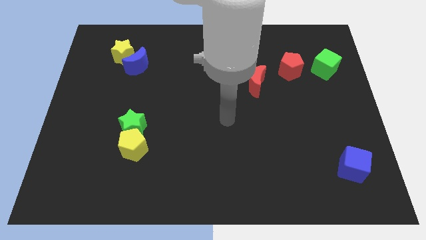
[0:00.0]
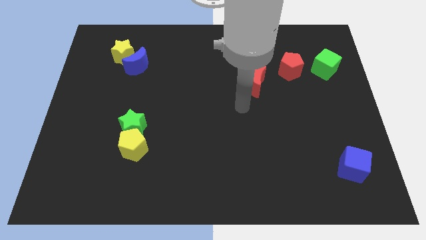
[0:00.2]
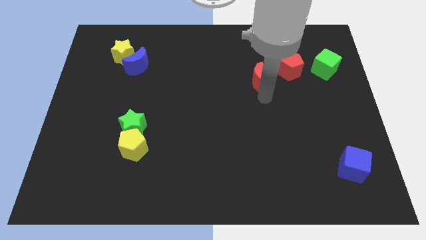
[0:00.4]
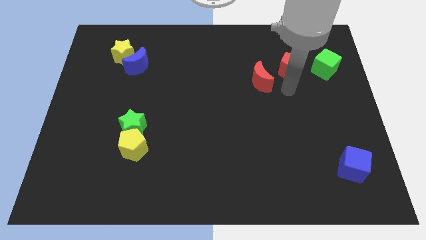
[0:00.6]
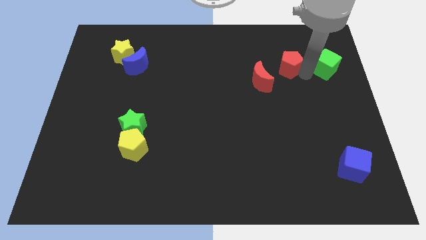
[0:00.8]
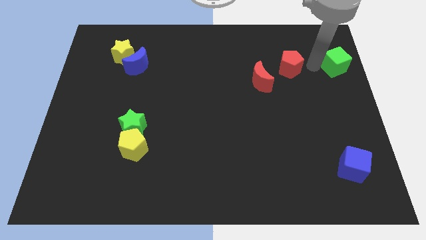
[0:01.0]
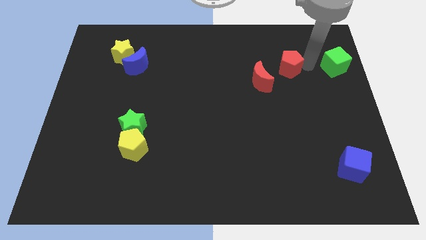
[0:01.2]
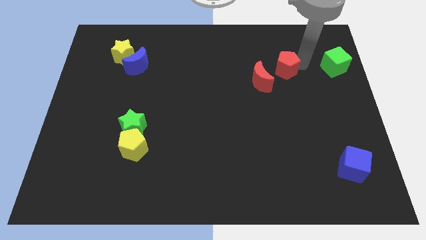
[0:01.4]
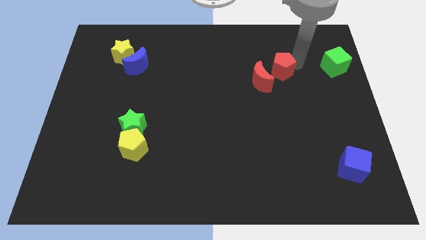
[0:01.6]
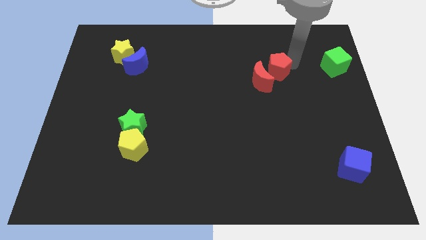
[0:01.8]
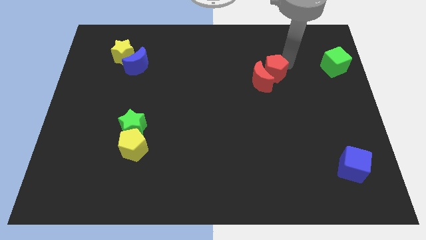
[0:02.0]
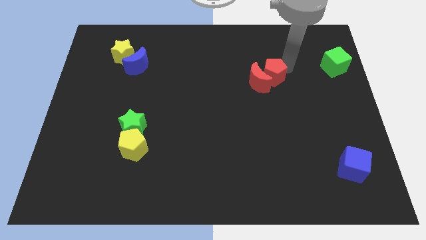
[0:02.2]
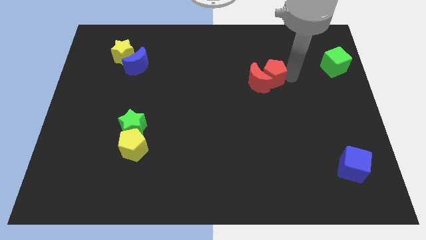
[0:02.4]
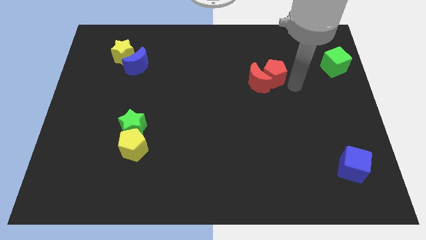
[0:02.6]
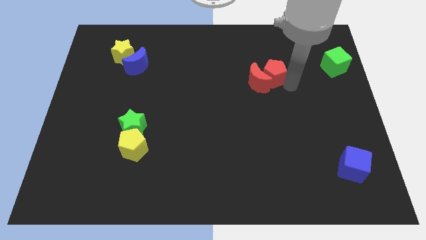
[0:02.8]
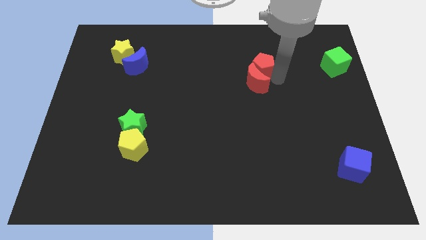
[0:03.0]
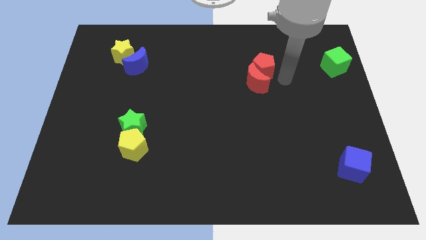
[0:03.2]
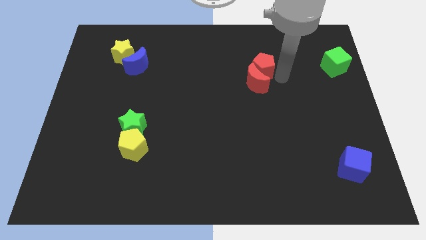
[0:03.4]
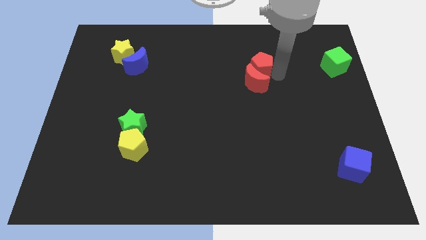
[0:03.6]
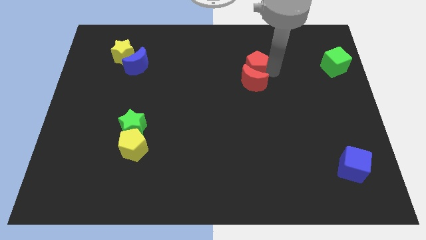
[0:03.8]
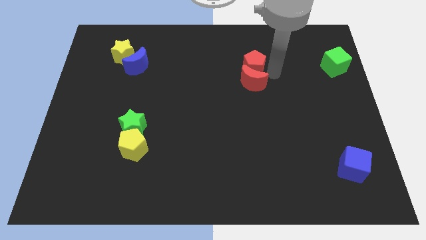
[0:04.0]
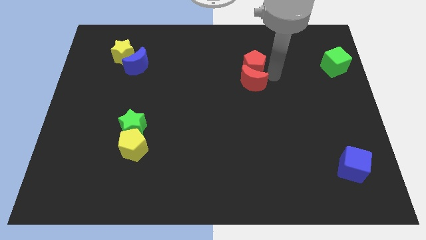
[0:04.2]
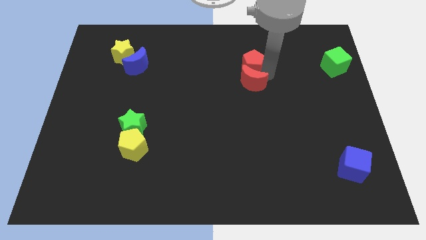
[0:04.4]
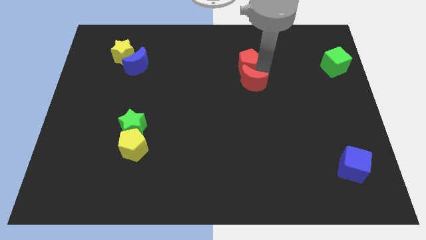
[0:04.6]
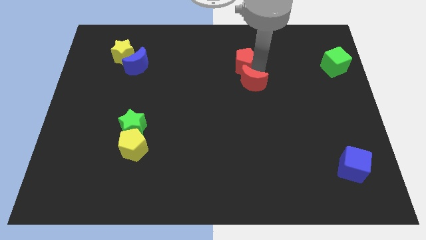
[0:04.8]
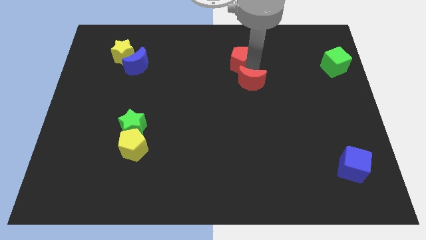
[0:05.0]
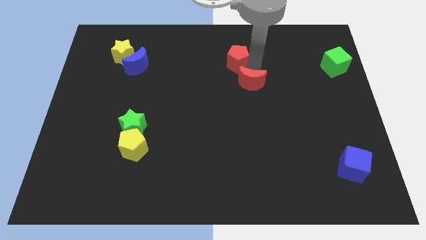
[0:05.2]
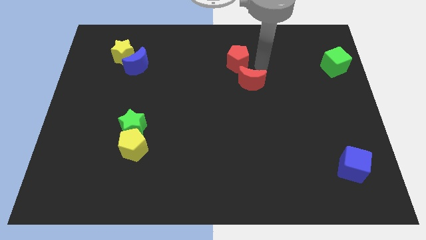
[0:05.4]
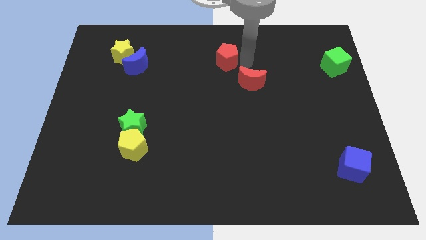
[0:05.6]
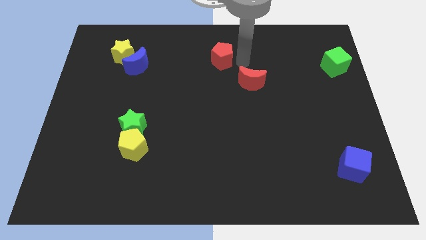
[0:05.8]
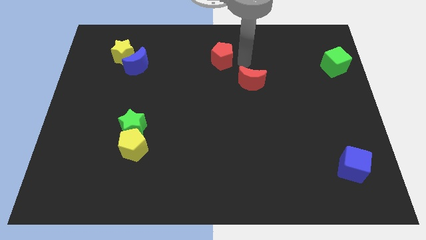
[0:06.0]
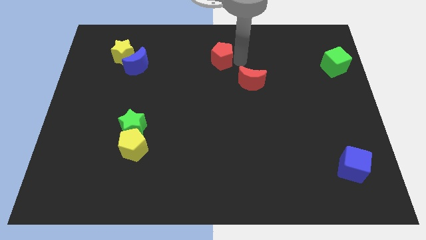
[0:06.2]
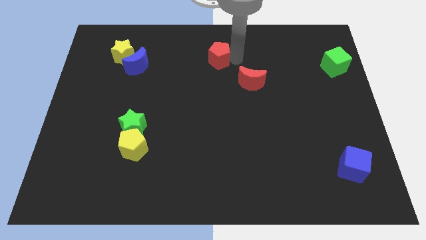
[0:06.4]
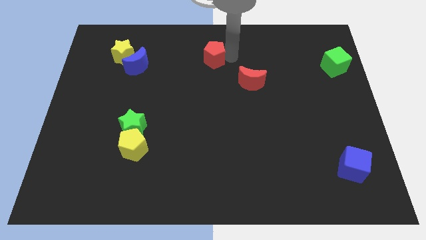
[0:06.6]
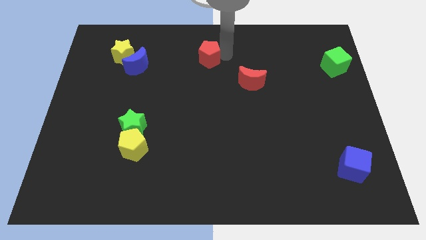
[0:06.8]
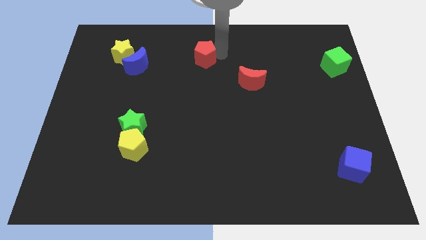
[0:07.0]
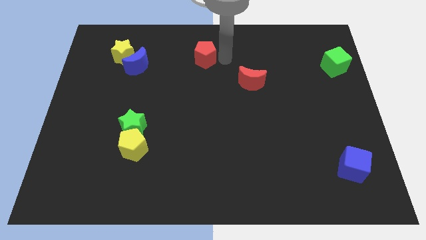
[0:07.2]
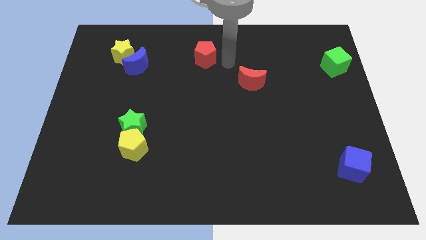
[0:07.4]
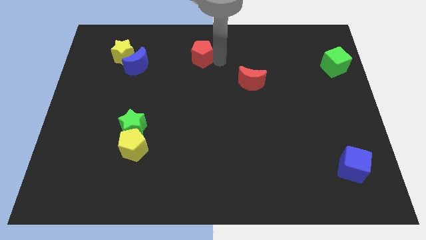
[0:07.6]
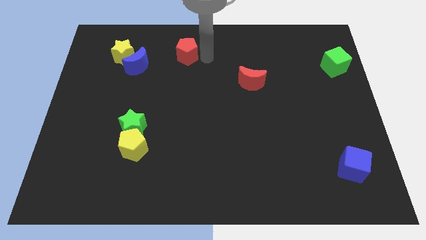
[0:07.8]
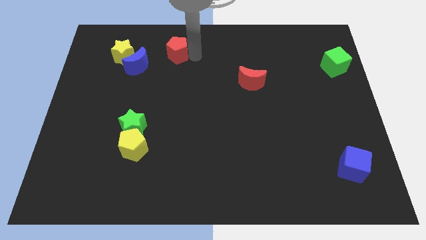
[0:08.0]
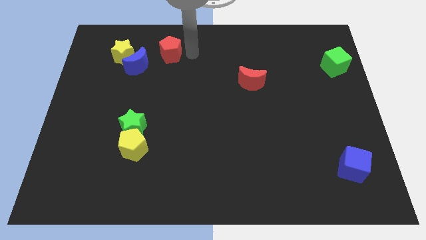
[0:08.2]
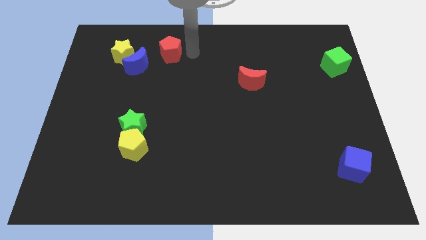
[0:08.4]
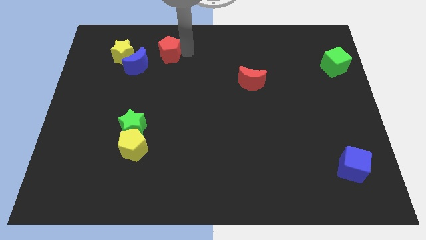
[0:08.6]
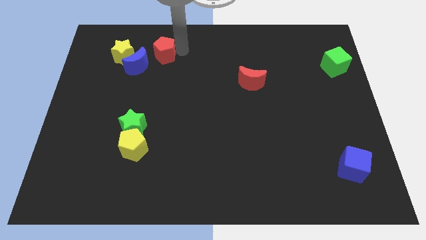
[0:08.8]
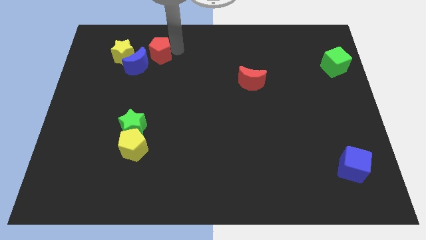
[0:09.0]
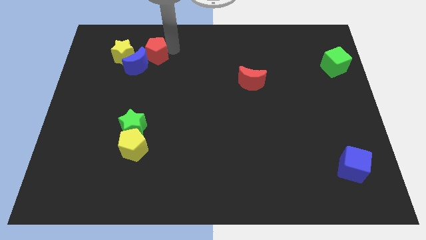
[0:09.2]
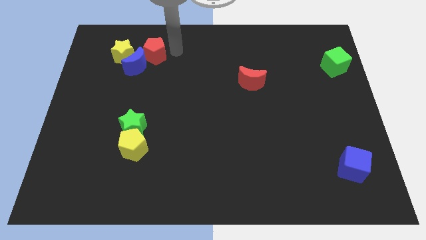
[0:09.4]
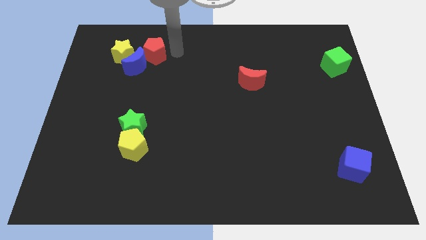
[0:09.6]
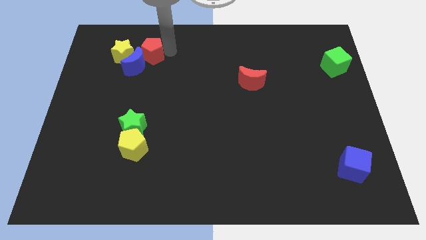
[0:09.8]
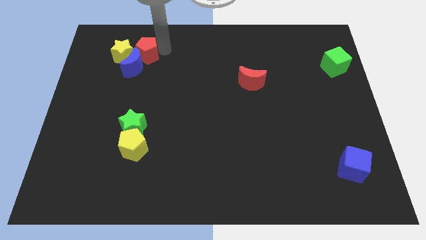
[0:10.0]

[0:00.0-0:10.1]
move the red pentagon towards the yellow star

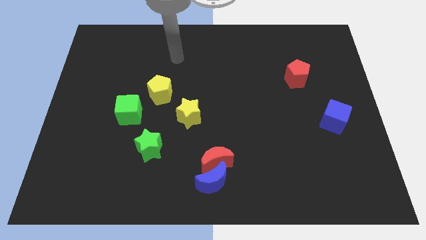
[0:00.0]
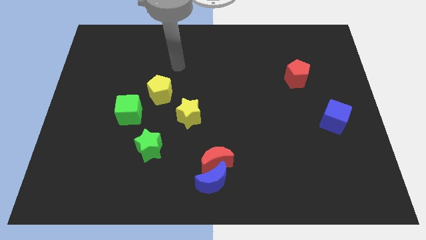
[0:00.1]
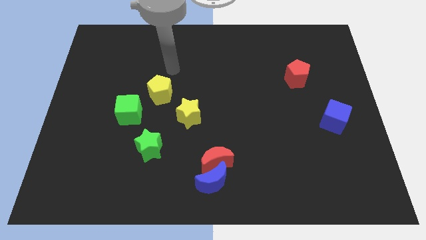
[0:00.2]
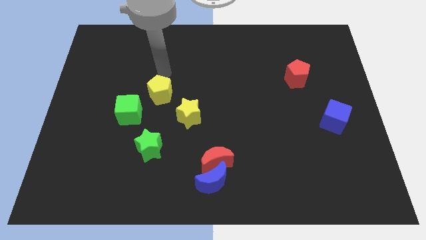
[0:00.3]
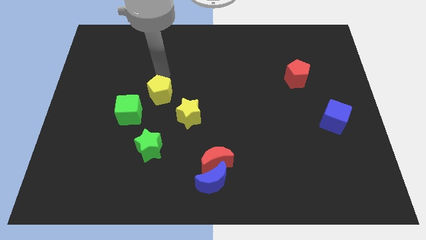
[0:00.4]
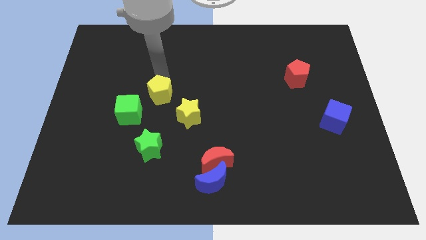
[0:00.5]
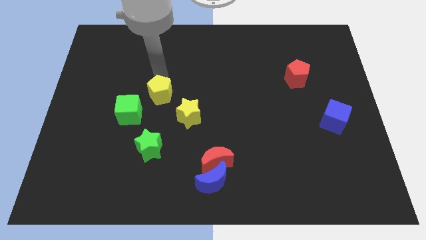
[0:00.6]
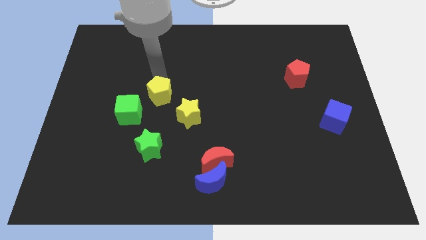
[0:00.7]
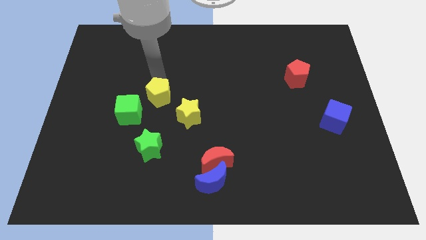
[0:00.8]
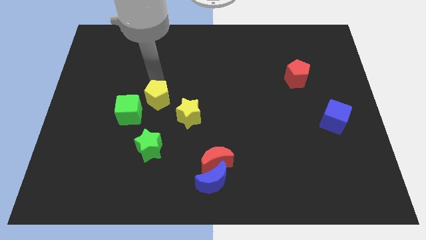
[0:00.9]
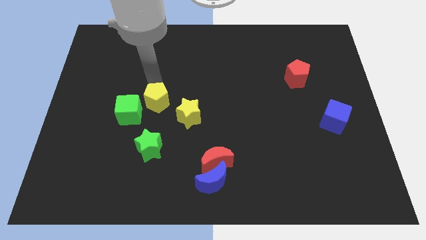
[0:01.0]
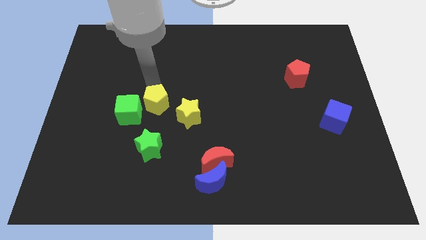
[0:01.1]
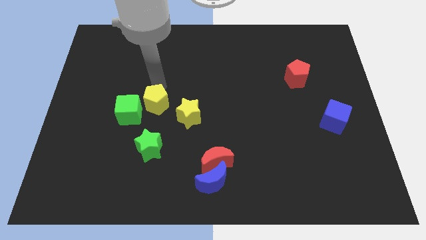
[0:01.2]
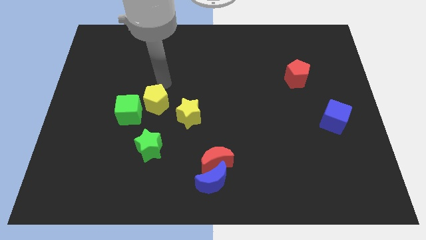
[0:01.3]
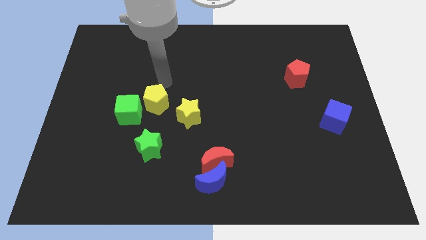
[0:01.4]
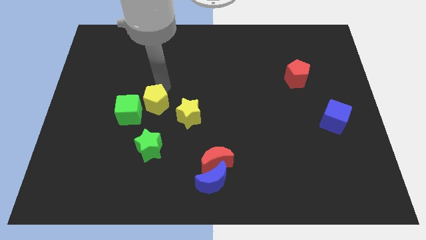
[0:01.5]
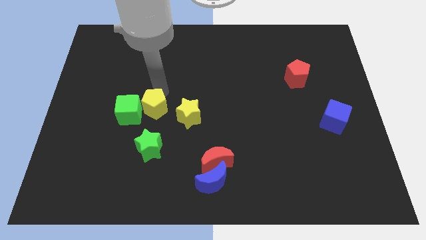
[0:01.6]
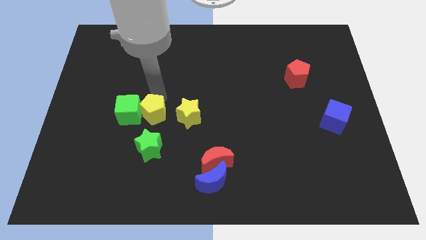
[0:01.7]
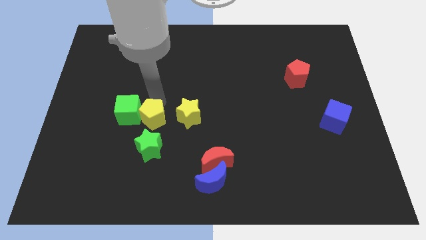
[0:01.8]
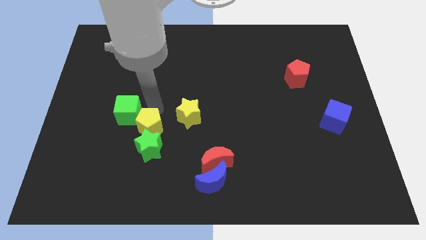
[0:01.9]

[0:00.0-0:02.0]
slide the yellow pentagon close to the green star

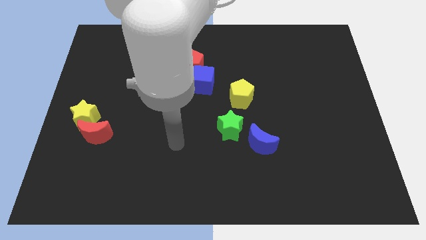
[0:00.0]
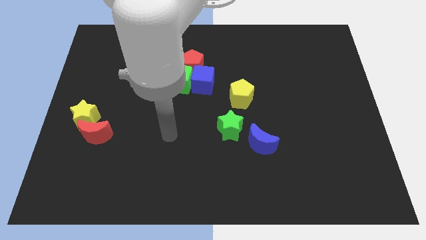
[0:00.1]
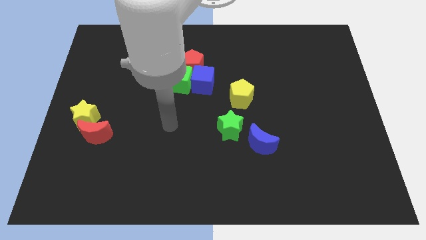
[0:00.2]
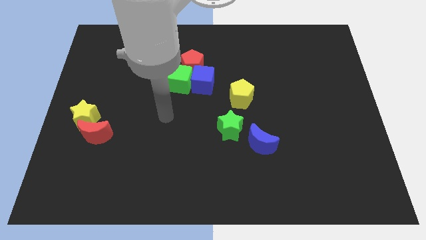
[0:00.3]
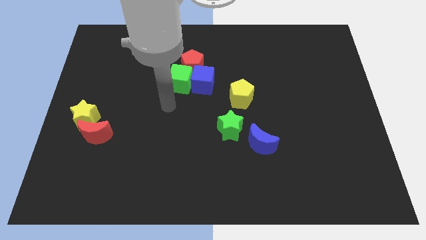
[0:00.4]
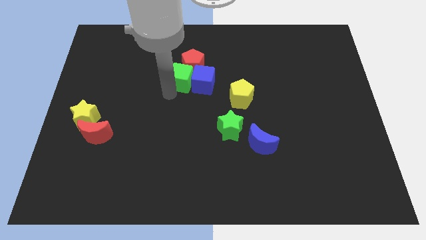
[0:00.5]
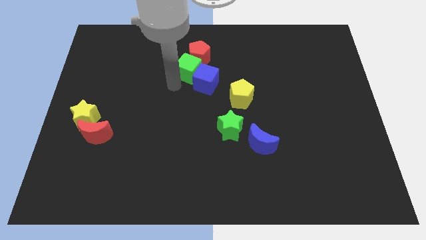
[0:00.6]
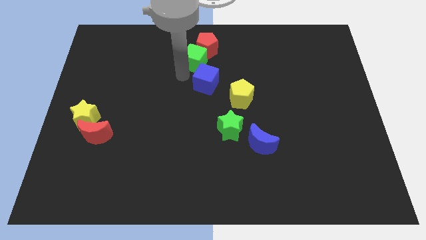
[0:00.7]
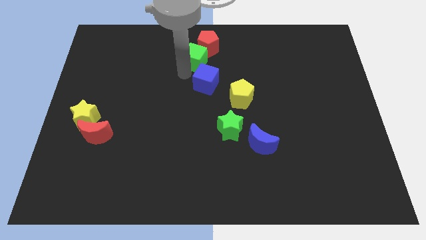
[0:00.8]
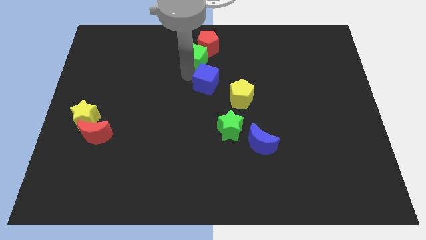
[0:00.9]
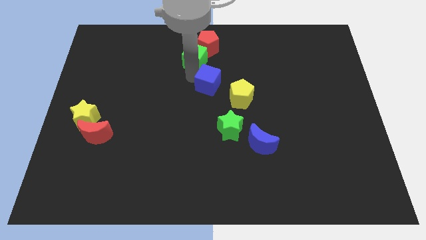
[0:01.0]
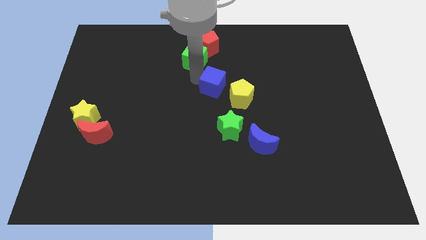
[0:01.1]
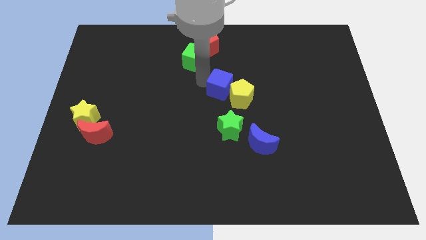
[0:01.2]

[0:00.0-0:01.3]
push the blue cube towards the yellow pentagon
